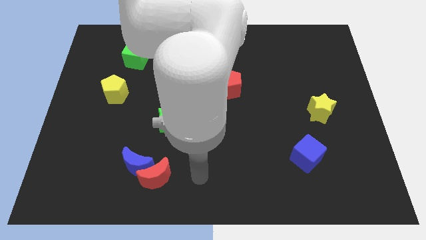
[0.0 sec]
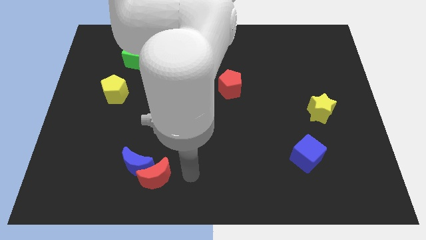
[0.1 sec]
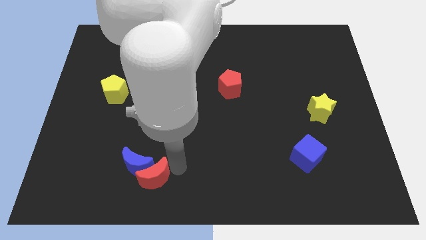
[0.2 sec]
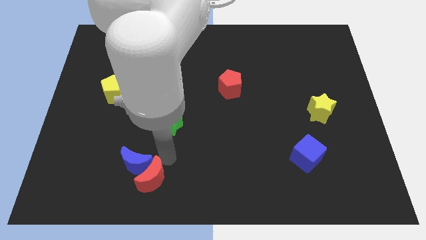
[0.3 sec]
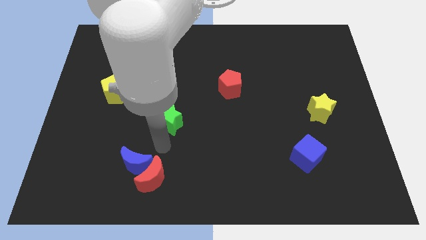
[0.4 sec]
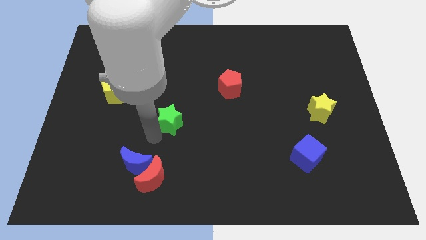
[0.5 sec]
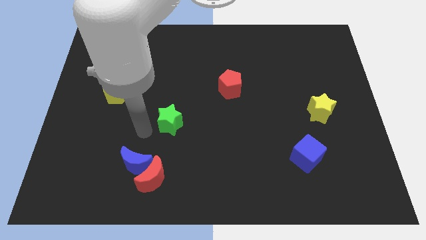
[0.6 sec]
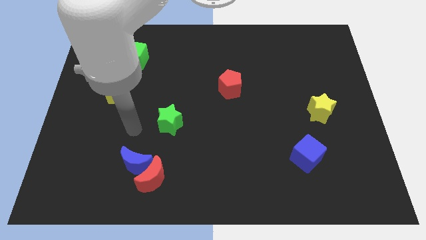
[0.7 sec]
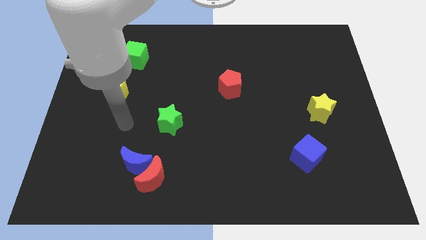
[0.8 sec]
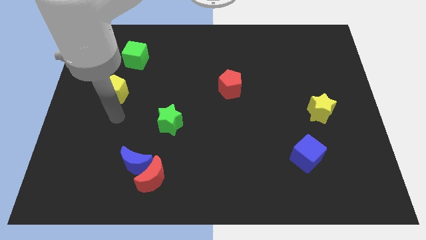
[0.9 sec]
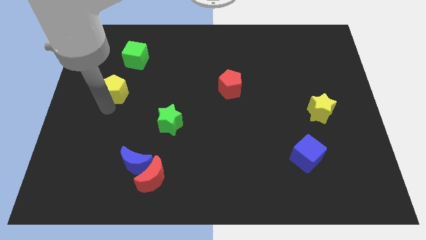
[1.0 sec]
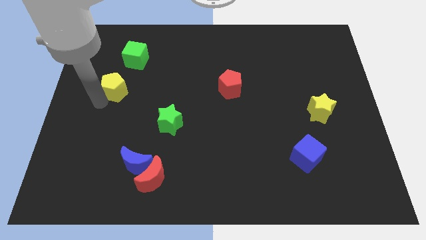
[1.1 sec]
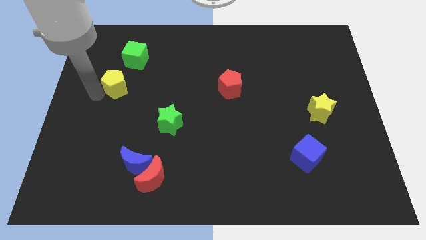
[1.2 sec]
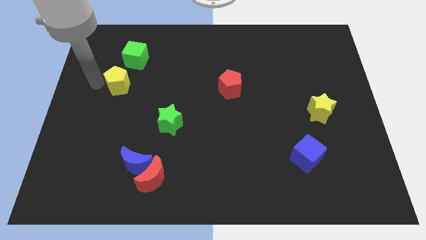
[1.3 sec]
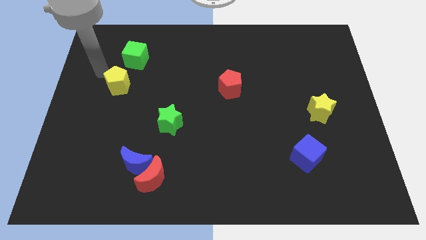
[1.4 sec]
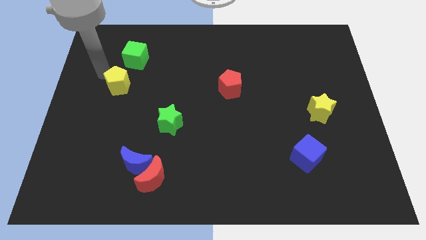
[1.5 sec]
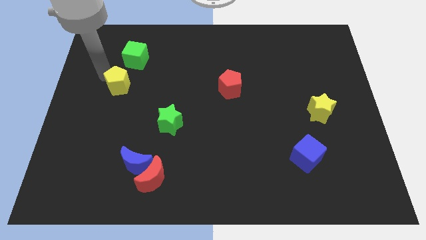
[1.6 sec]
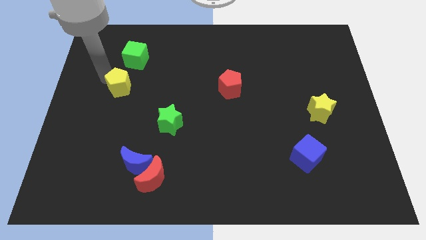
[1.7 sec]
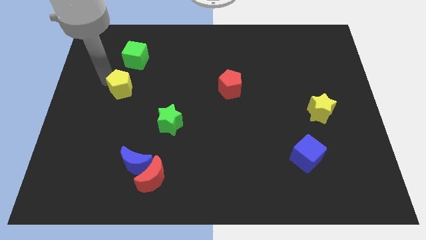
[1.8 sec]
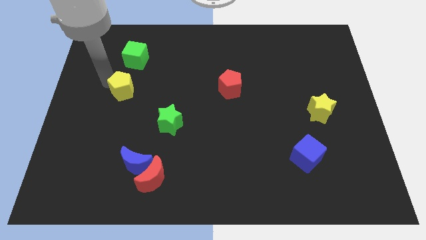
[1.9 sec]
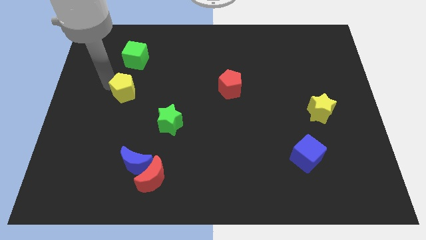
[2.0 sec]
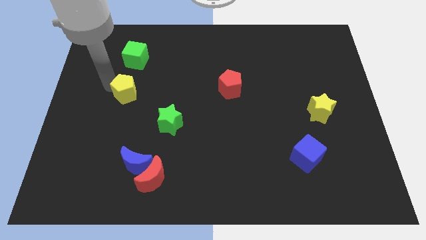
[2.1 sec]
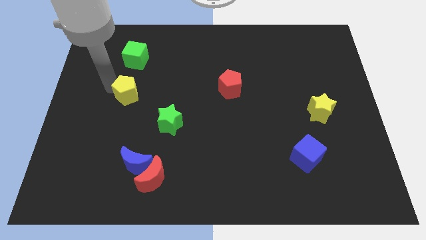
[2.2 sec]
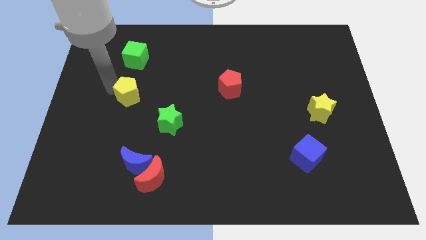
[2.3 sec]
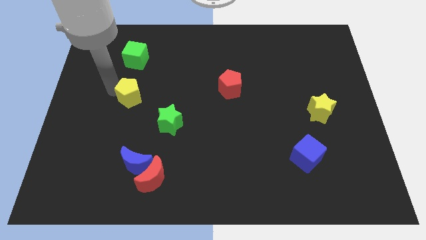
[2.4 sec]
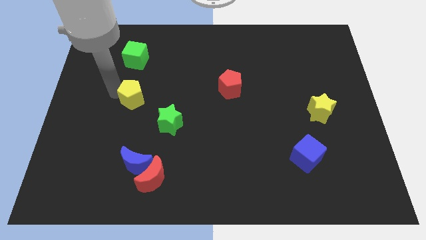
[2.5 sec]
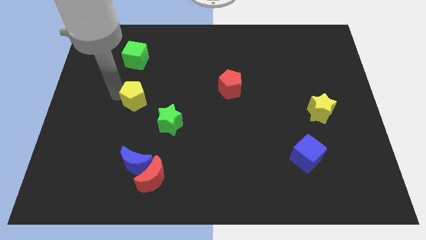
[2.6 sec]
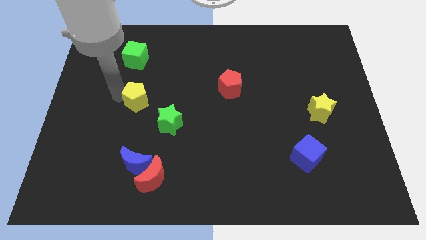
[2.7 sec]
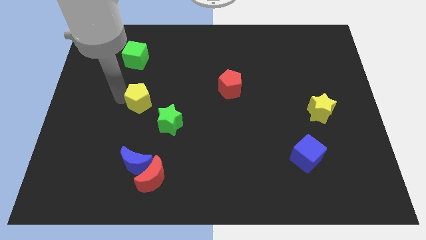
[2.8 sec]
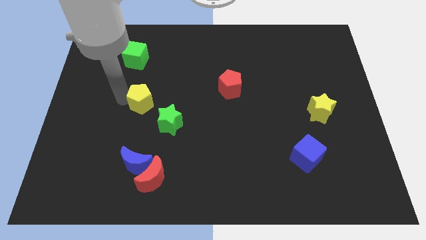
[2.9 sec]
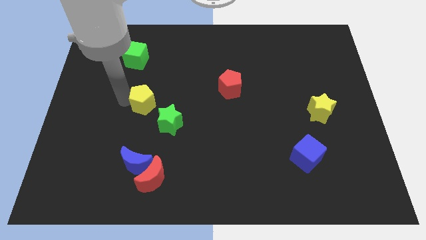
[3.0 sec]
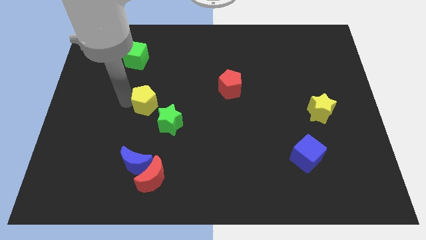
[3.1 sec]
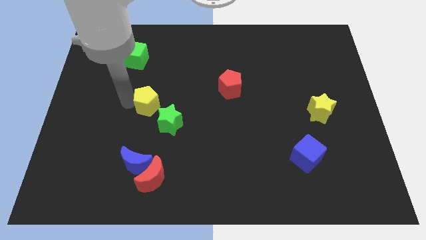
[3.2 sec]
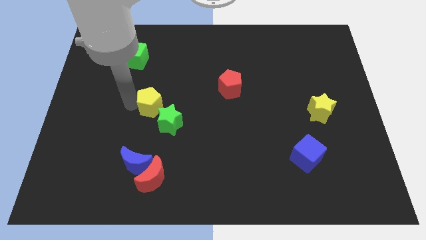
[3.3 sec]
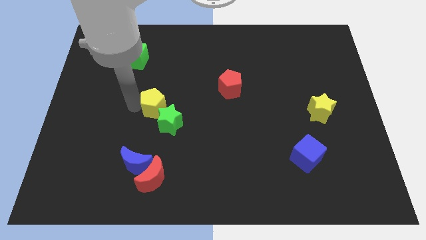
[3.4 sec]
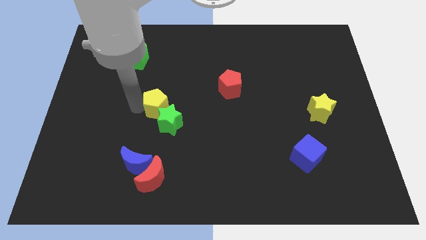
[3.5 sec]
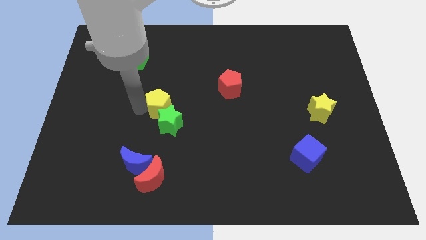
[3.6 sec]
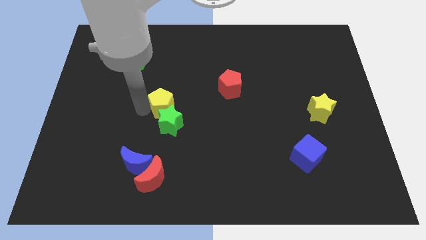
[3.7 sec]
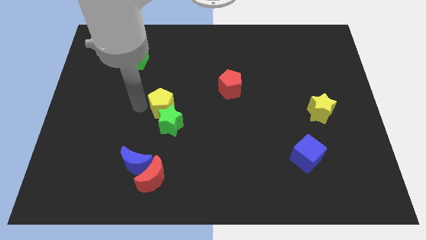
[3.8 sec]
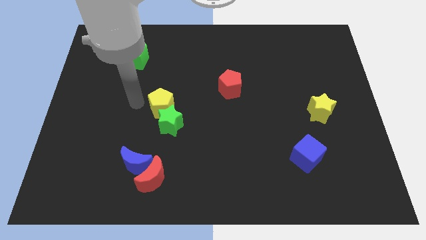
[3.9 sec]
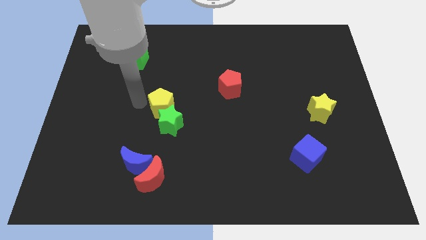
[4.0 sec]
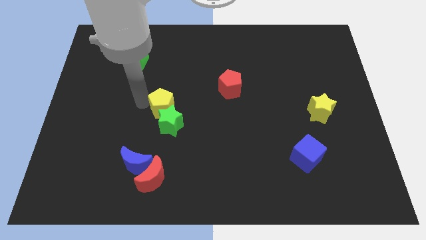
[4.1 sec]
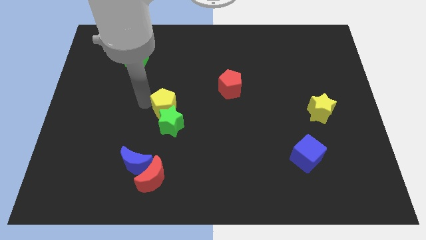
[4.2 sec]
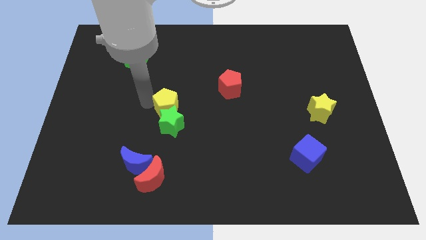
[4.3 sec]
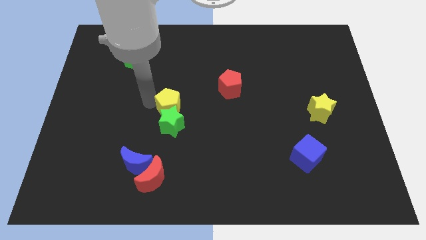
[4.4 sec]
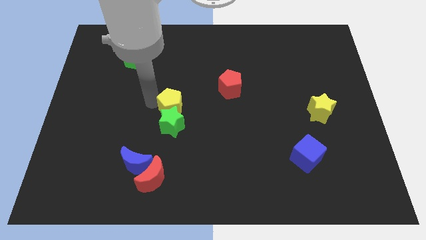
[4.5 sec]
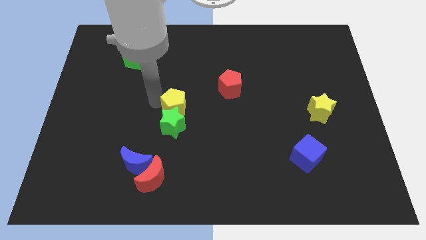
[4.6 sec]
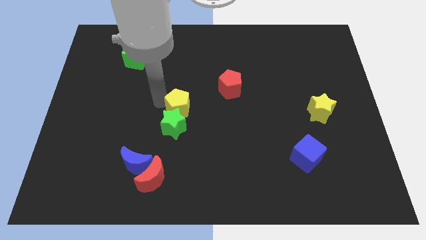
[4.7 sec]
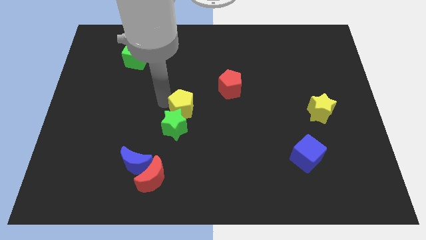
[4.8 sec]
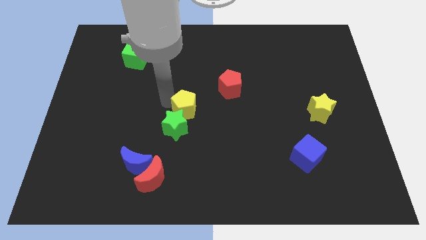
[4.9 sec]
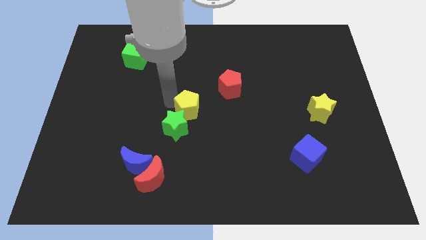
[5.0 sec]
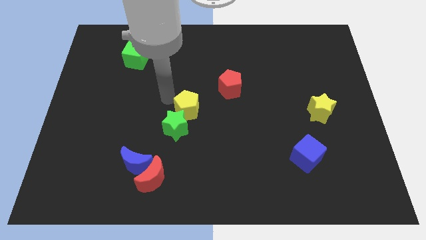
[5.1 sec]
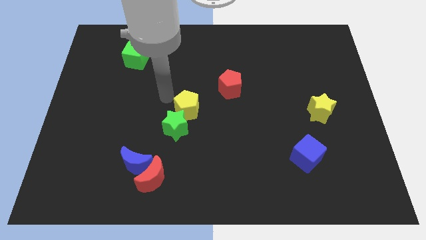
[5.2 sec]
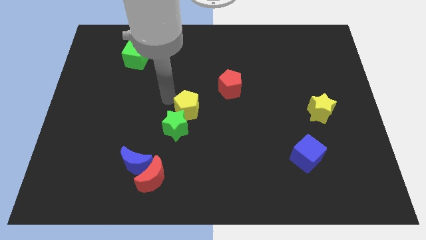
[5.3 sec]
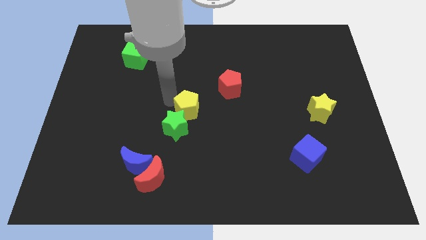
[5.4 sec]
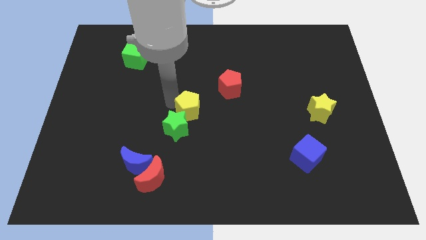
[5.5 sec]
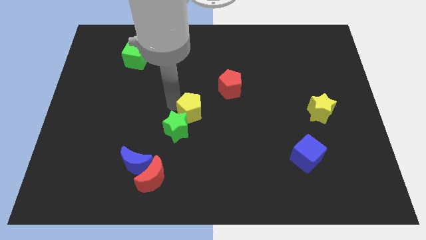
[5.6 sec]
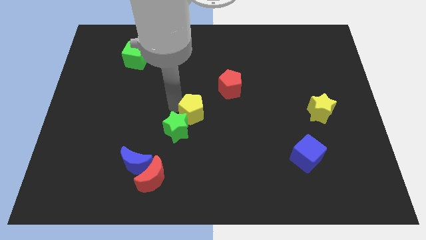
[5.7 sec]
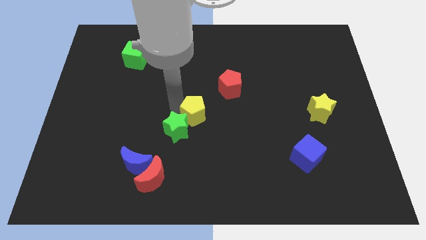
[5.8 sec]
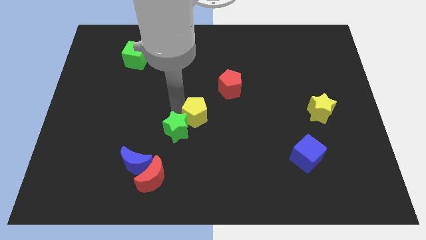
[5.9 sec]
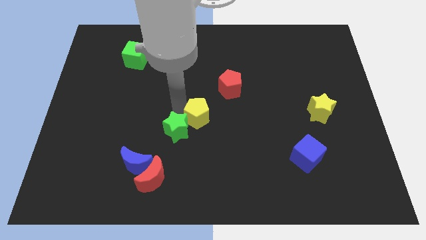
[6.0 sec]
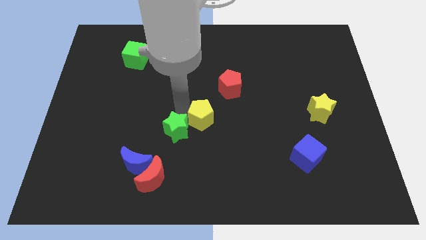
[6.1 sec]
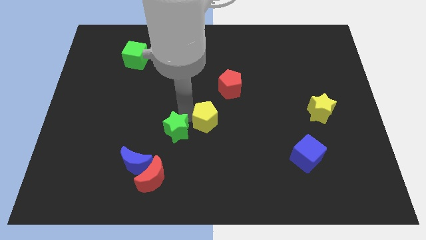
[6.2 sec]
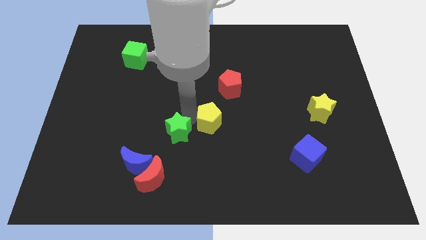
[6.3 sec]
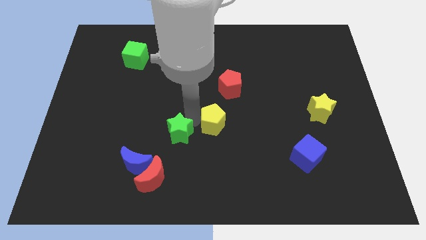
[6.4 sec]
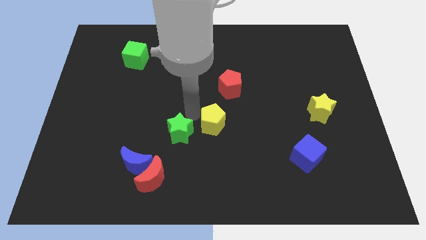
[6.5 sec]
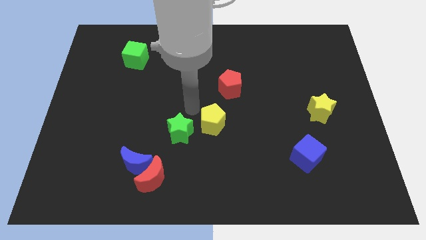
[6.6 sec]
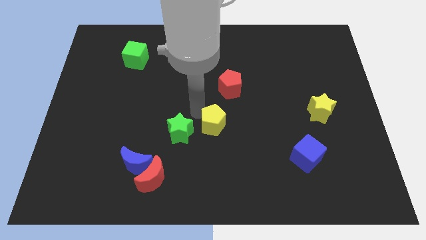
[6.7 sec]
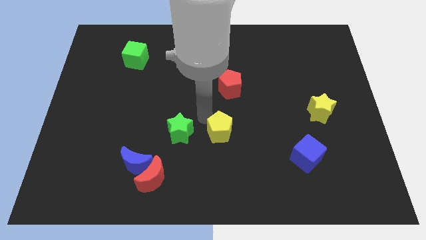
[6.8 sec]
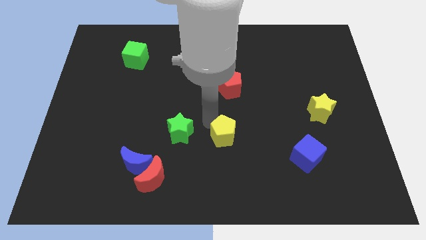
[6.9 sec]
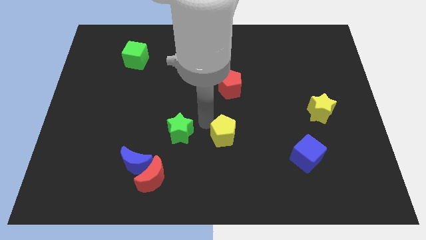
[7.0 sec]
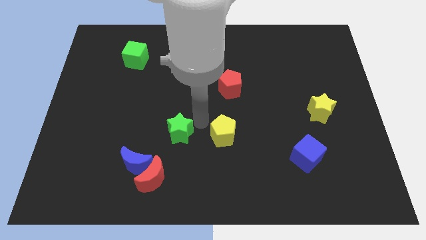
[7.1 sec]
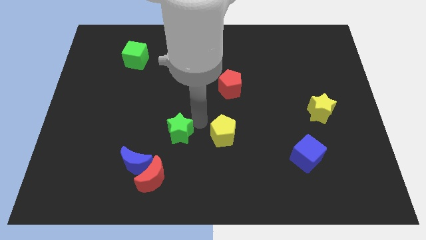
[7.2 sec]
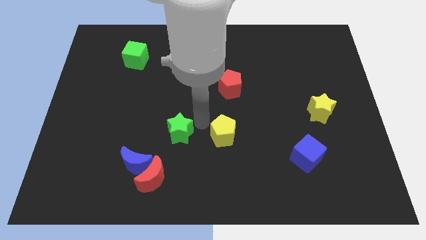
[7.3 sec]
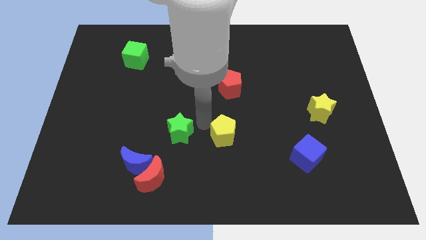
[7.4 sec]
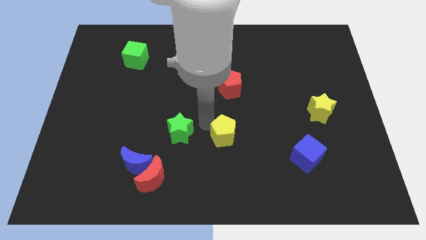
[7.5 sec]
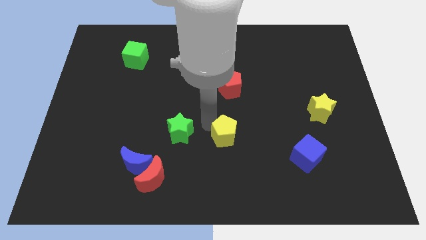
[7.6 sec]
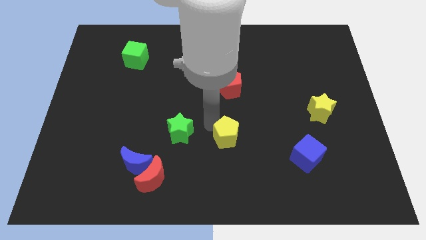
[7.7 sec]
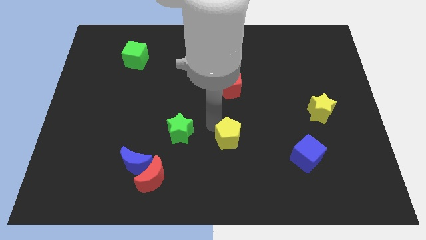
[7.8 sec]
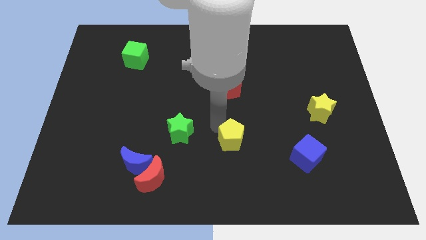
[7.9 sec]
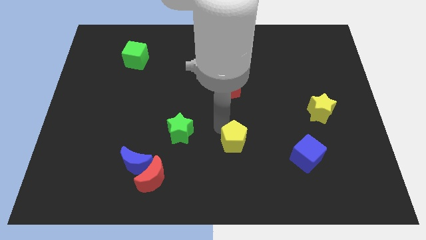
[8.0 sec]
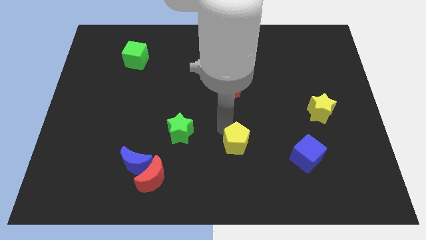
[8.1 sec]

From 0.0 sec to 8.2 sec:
put the yellow pentagon to the left side of the blue cube
